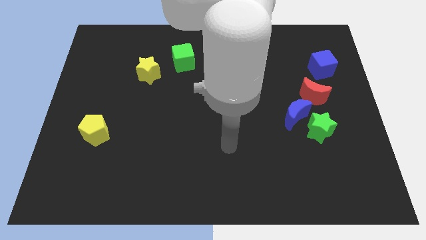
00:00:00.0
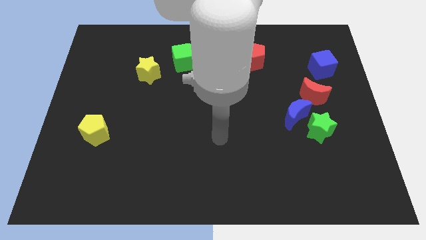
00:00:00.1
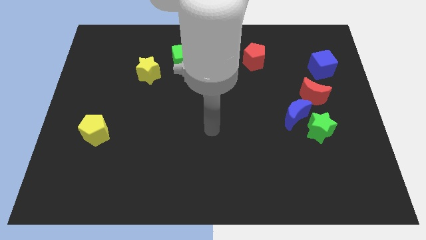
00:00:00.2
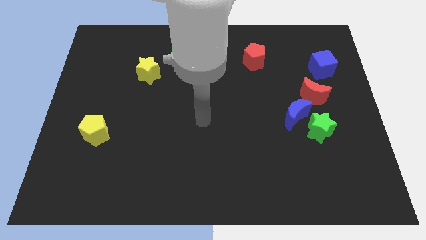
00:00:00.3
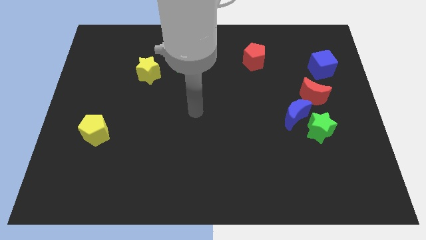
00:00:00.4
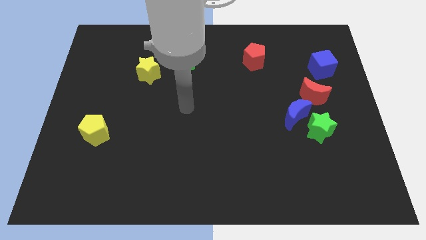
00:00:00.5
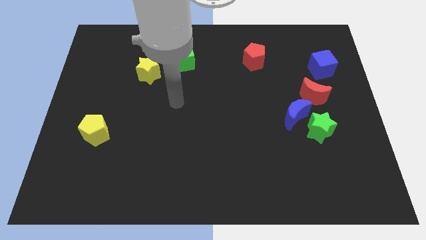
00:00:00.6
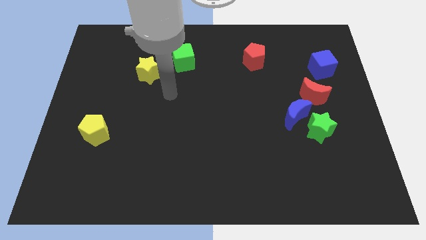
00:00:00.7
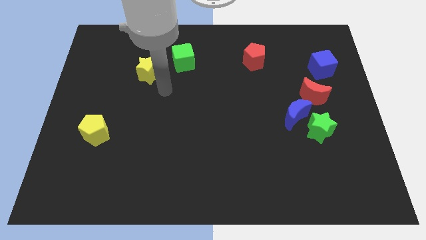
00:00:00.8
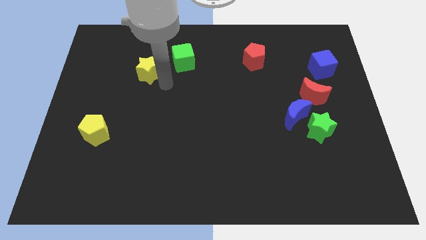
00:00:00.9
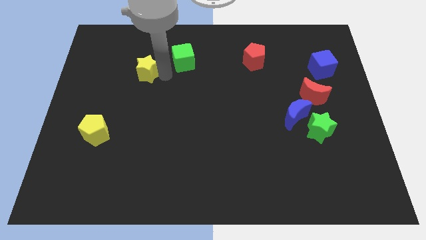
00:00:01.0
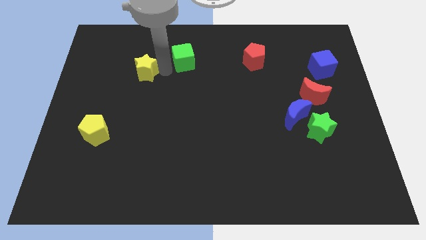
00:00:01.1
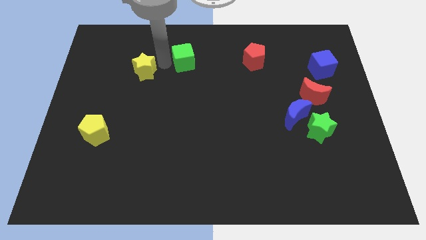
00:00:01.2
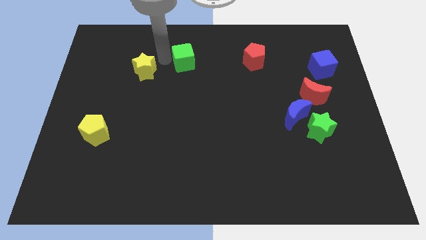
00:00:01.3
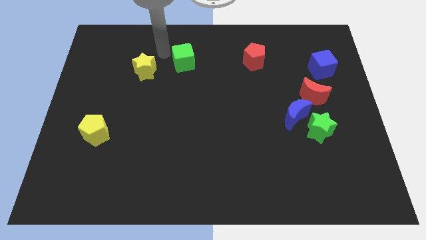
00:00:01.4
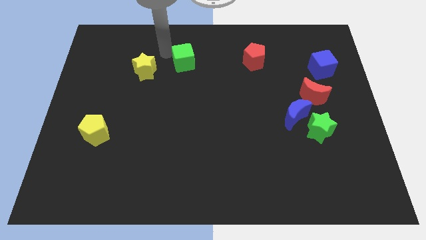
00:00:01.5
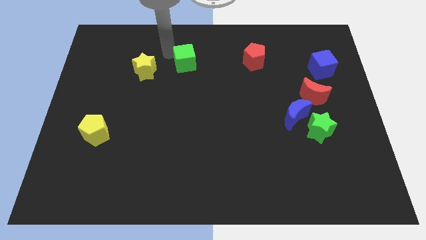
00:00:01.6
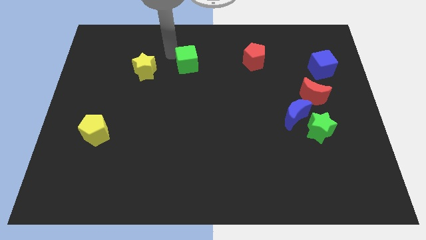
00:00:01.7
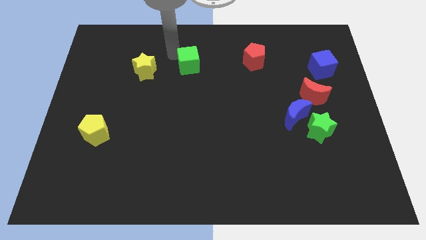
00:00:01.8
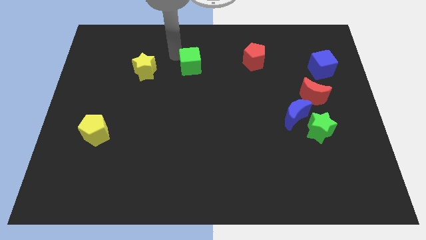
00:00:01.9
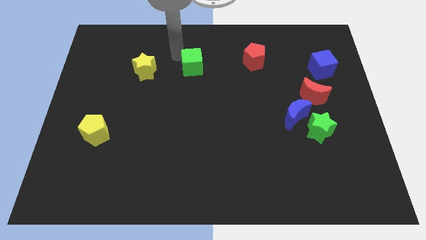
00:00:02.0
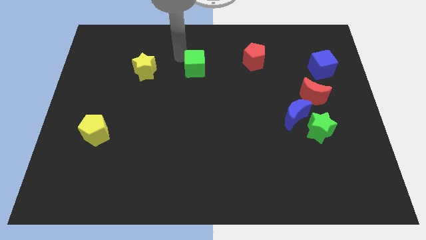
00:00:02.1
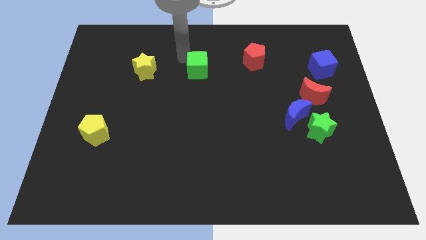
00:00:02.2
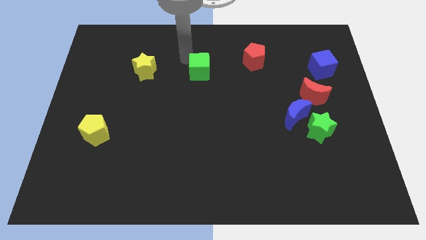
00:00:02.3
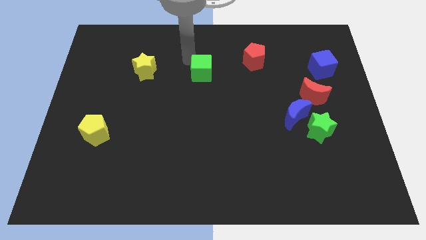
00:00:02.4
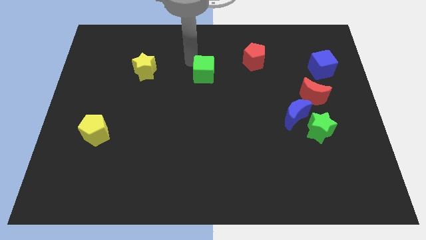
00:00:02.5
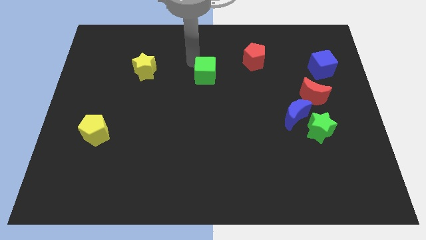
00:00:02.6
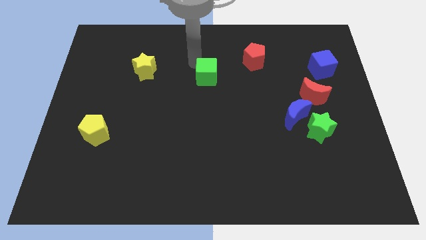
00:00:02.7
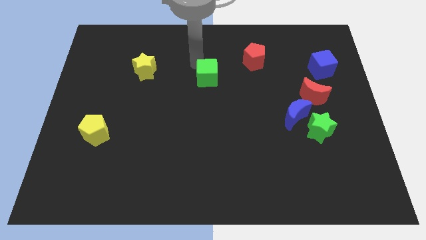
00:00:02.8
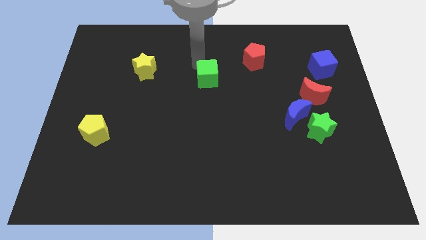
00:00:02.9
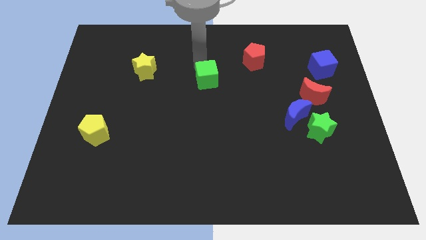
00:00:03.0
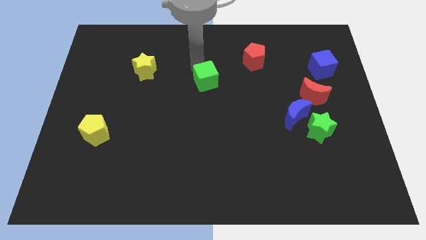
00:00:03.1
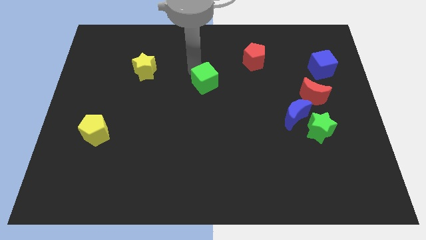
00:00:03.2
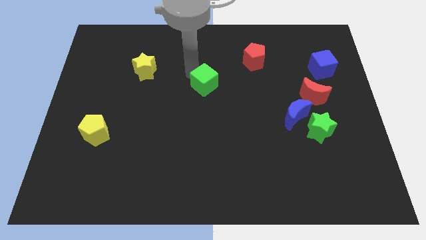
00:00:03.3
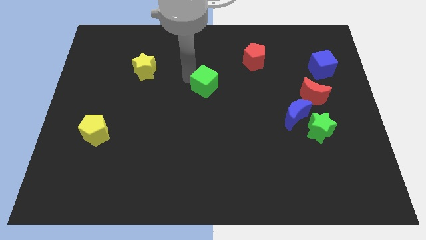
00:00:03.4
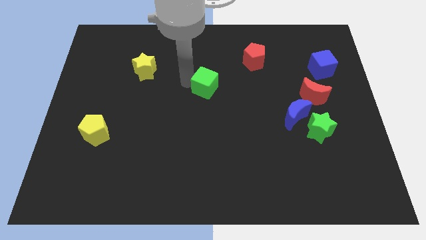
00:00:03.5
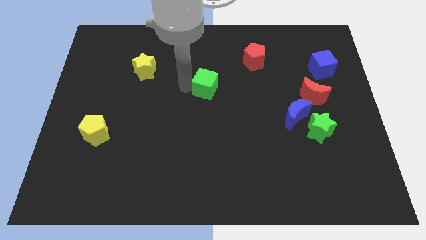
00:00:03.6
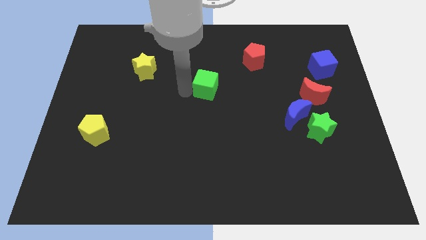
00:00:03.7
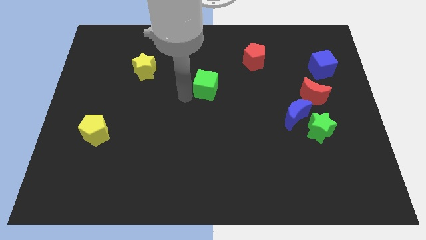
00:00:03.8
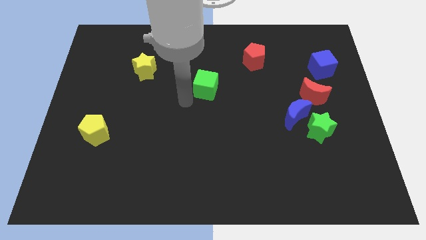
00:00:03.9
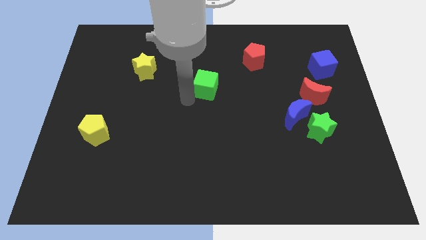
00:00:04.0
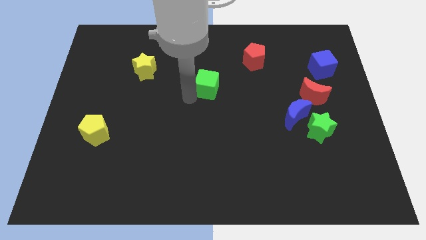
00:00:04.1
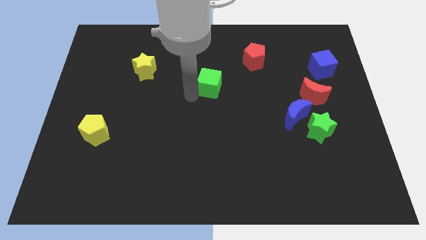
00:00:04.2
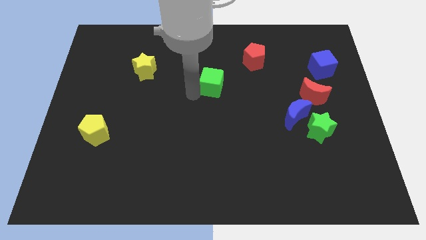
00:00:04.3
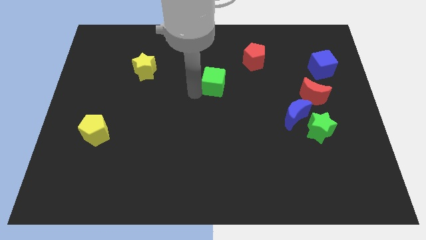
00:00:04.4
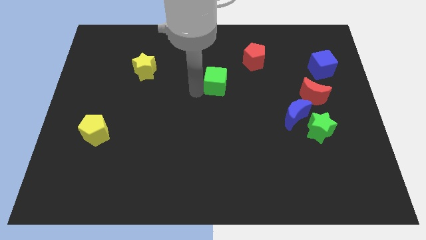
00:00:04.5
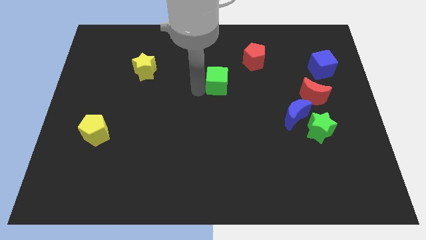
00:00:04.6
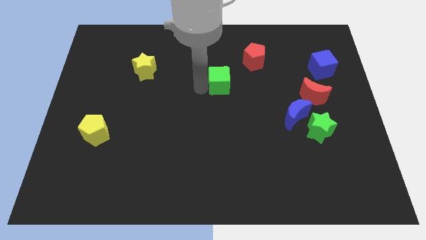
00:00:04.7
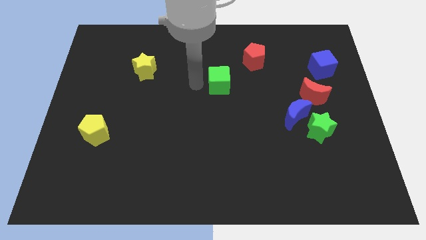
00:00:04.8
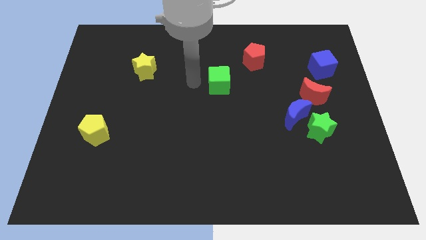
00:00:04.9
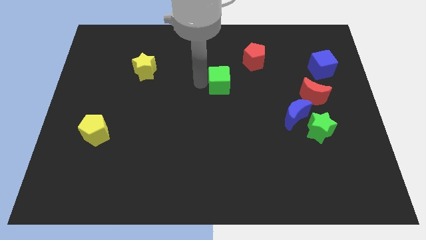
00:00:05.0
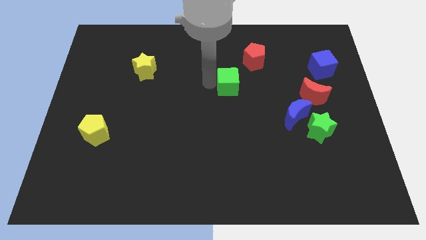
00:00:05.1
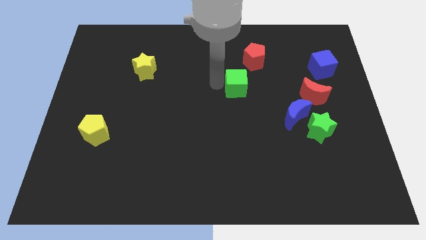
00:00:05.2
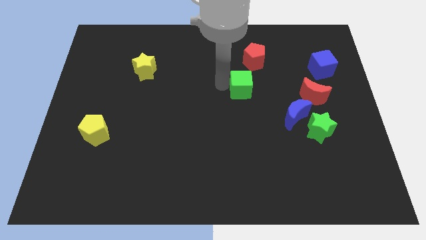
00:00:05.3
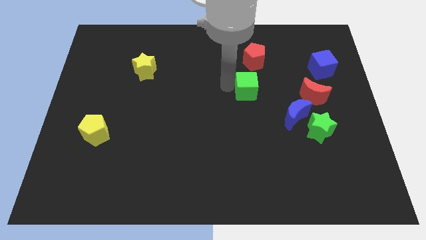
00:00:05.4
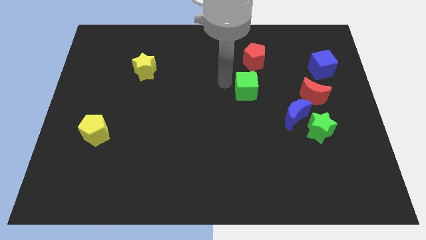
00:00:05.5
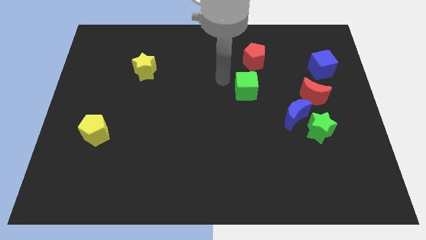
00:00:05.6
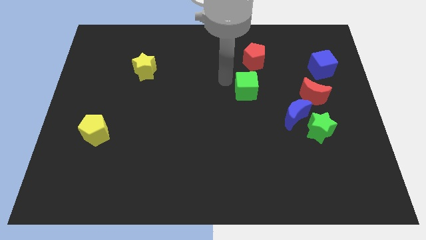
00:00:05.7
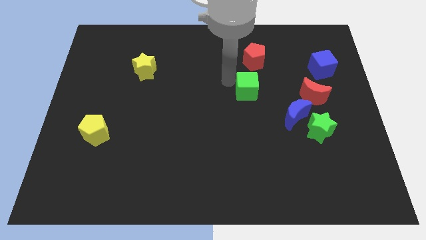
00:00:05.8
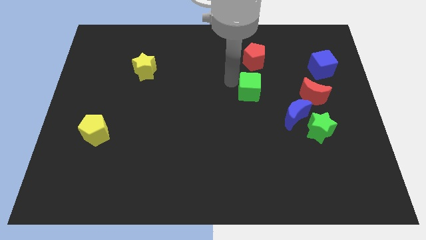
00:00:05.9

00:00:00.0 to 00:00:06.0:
push the green cube to the top left side of the blue moon

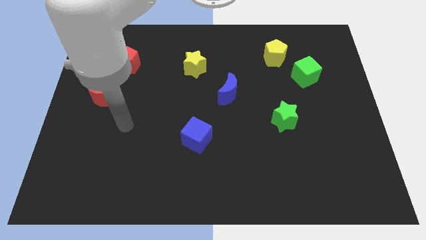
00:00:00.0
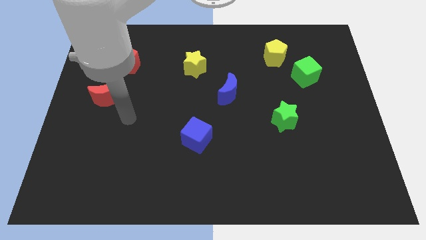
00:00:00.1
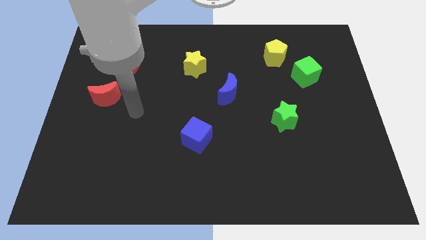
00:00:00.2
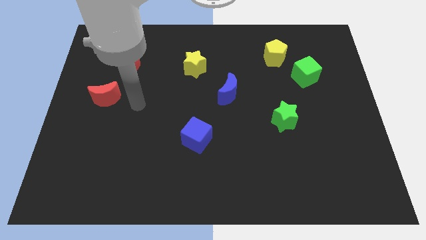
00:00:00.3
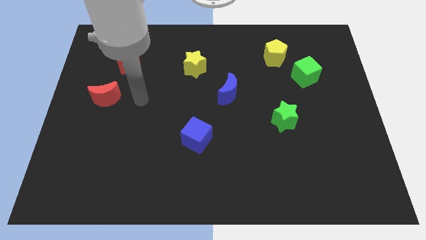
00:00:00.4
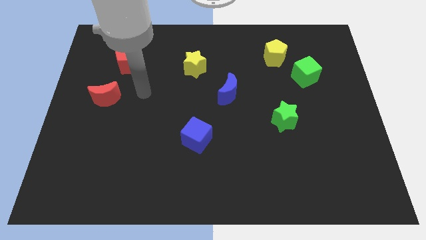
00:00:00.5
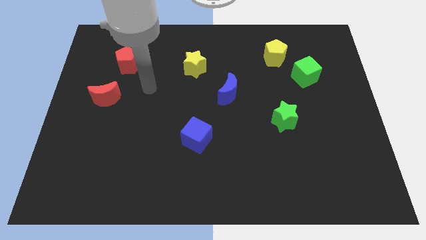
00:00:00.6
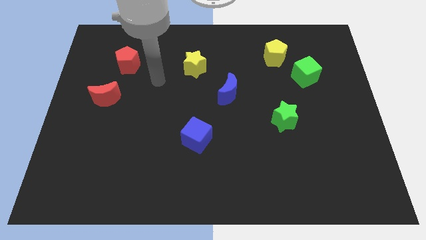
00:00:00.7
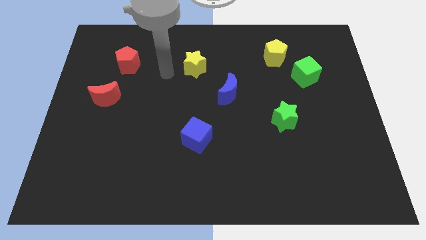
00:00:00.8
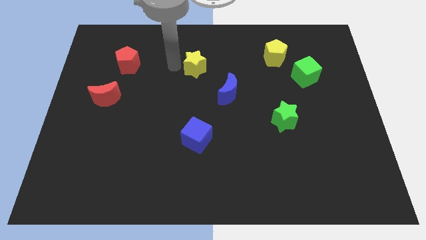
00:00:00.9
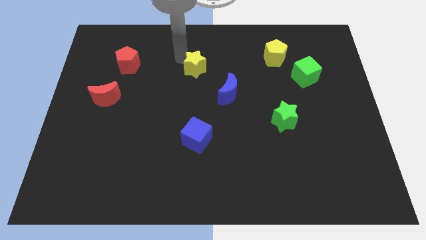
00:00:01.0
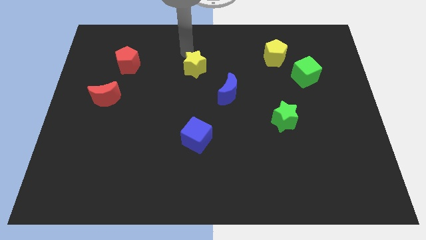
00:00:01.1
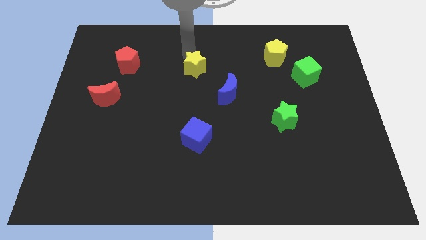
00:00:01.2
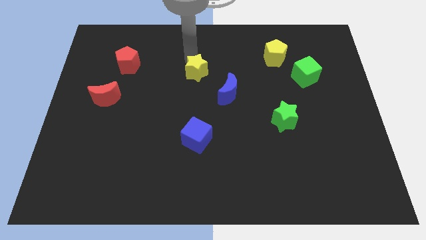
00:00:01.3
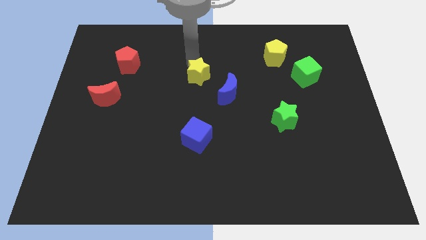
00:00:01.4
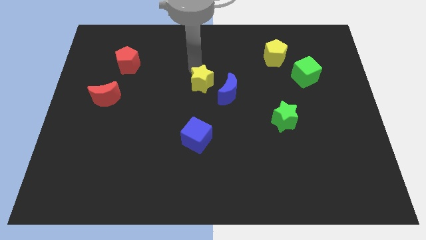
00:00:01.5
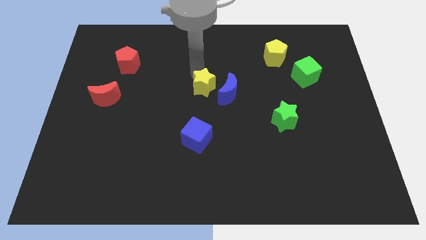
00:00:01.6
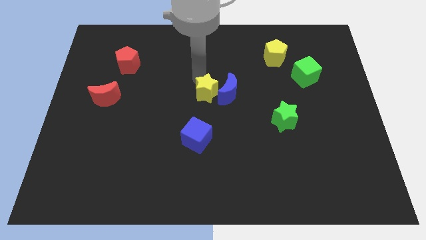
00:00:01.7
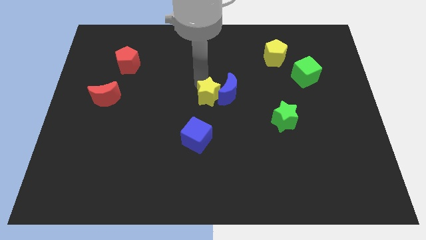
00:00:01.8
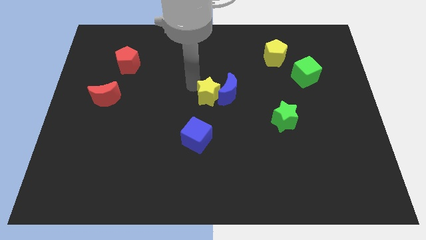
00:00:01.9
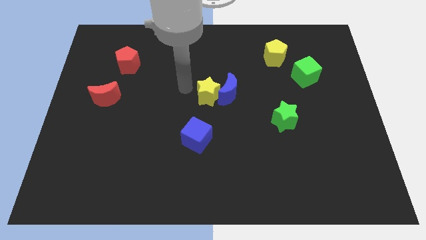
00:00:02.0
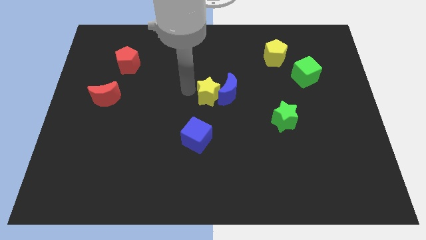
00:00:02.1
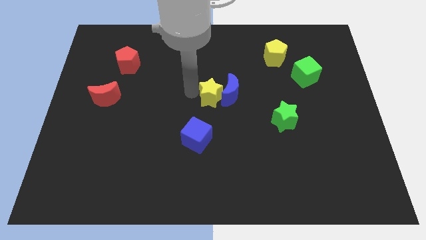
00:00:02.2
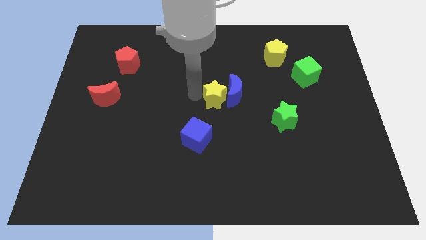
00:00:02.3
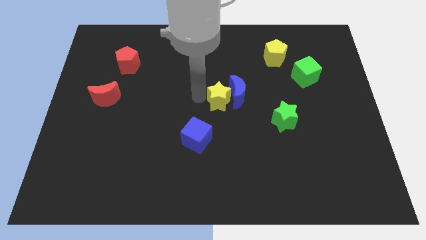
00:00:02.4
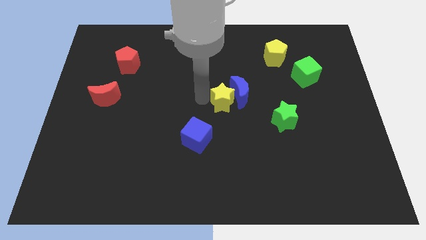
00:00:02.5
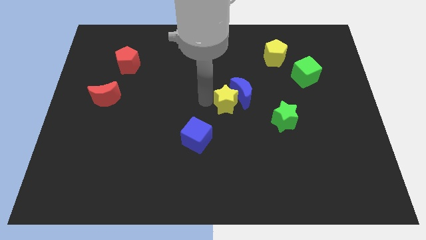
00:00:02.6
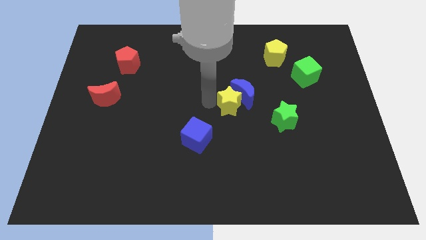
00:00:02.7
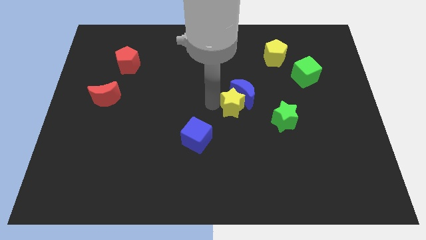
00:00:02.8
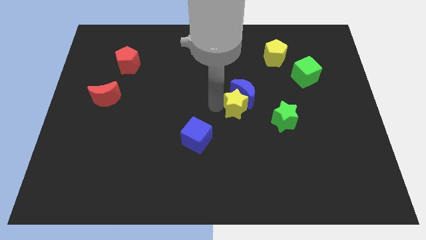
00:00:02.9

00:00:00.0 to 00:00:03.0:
push the yellow star diagonally down and to the right of the blue moon
